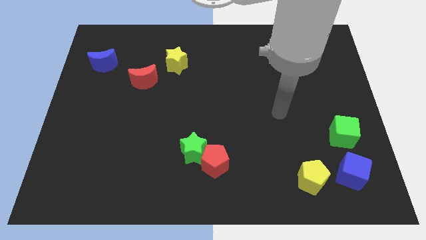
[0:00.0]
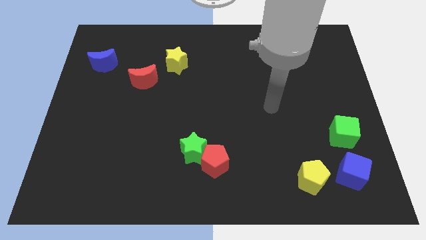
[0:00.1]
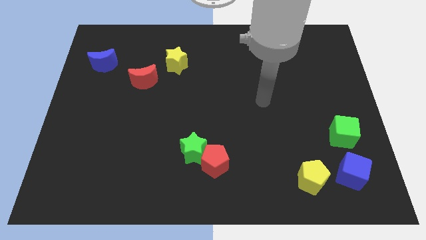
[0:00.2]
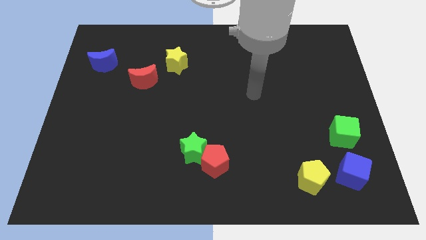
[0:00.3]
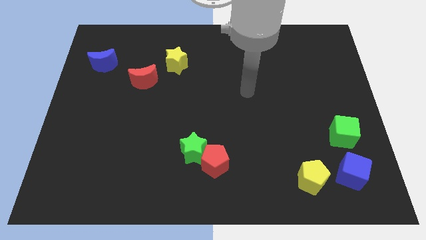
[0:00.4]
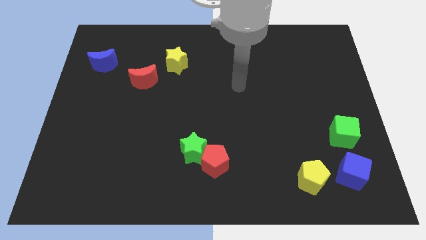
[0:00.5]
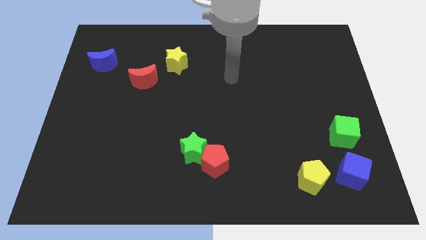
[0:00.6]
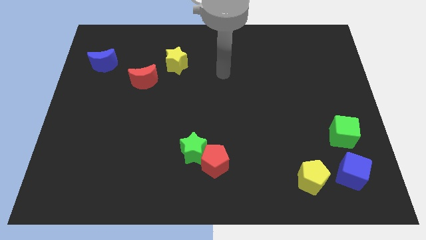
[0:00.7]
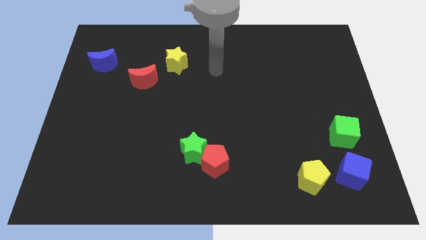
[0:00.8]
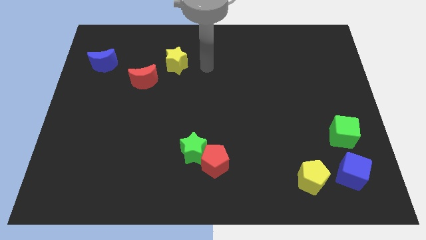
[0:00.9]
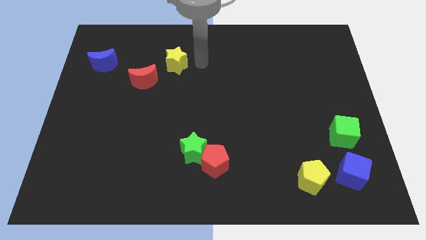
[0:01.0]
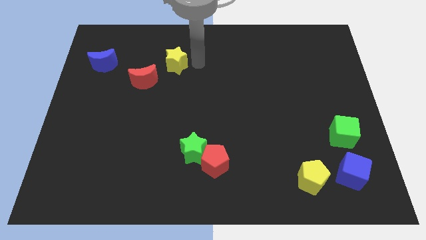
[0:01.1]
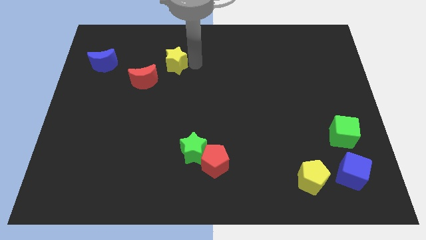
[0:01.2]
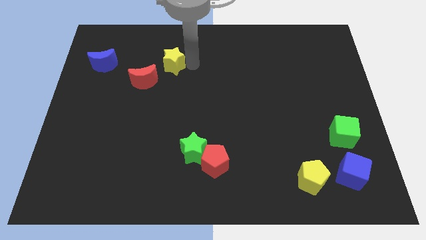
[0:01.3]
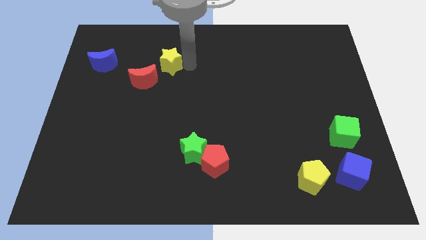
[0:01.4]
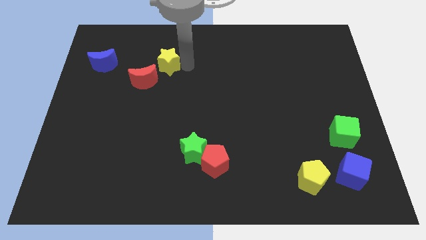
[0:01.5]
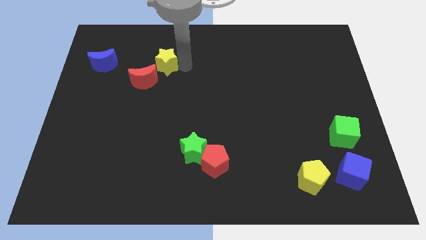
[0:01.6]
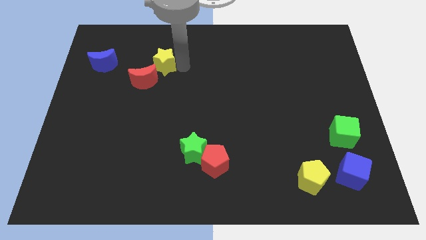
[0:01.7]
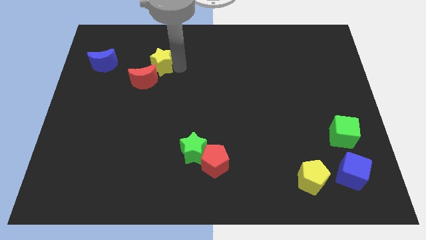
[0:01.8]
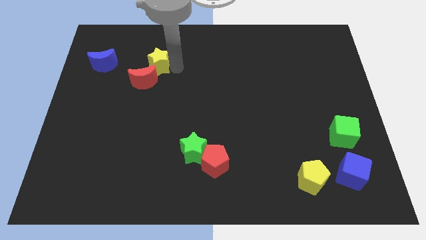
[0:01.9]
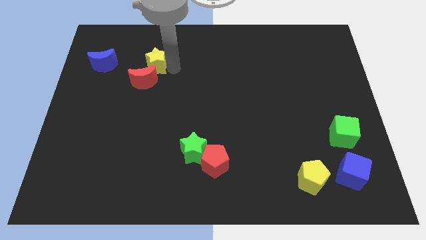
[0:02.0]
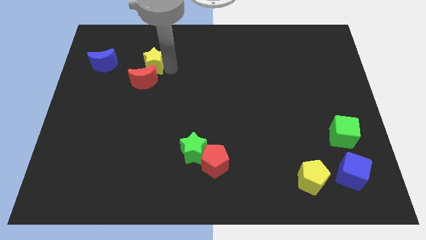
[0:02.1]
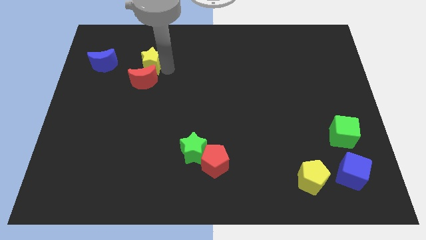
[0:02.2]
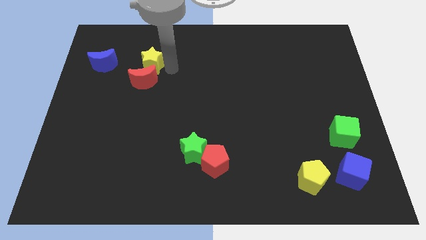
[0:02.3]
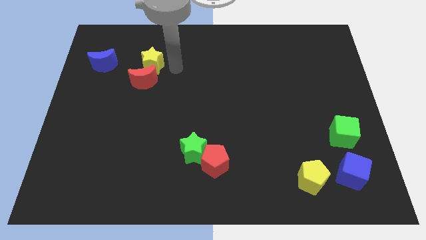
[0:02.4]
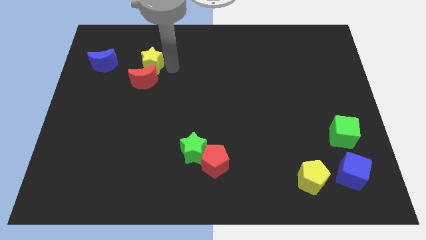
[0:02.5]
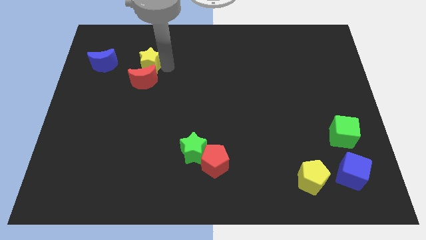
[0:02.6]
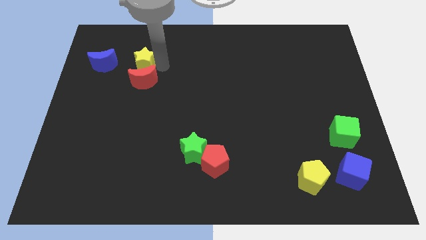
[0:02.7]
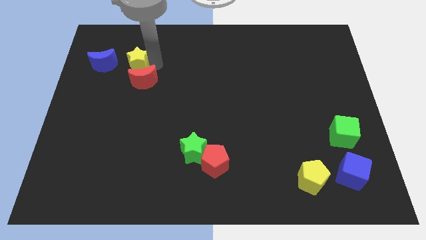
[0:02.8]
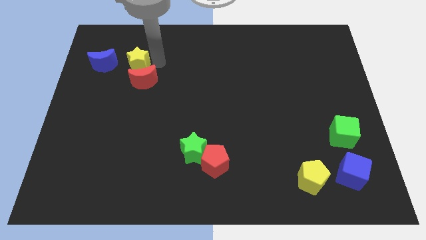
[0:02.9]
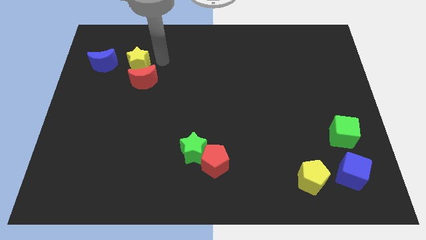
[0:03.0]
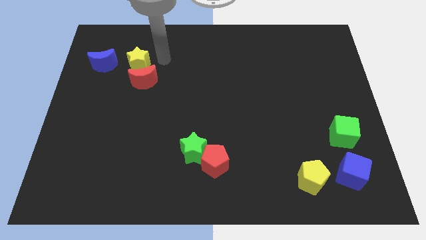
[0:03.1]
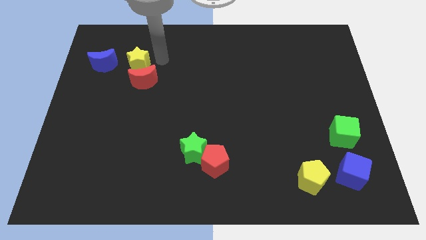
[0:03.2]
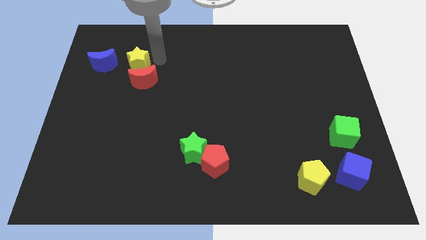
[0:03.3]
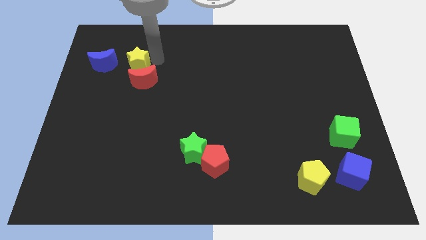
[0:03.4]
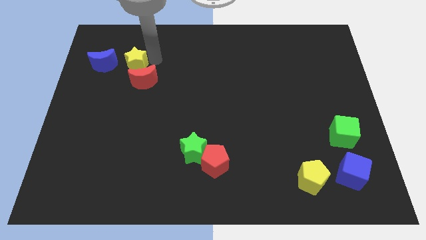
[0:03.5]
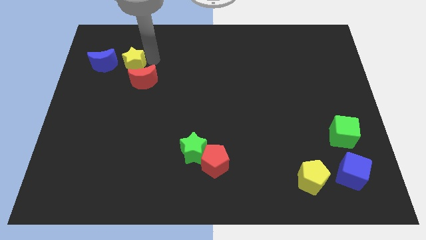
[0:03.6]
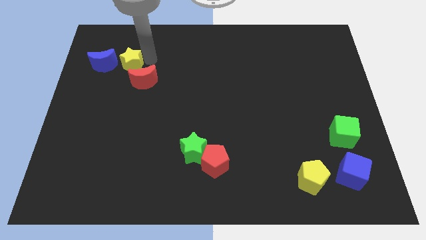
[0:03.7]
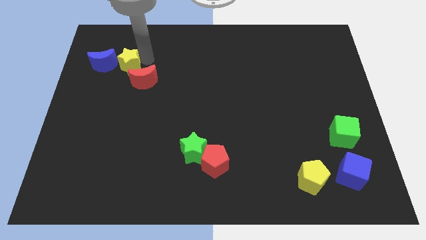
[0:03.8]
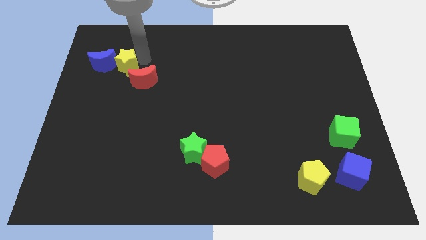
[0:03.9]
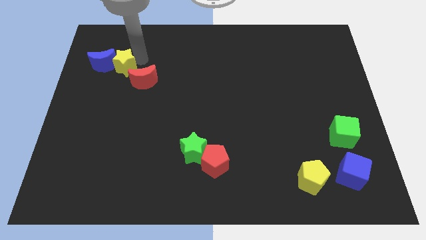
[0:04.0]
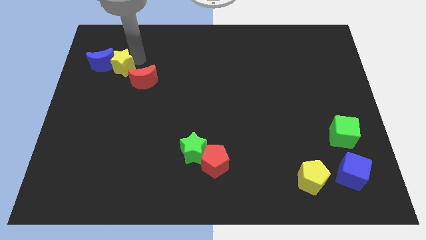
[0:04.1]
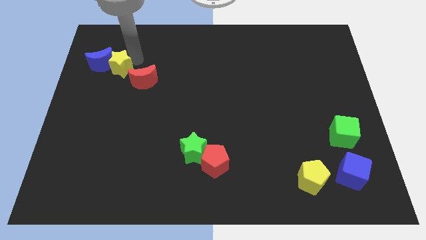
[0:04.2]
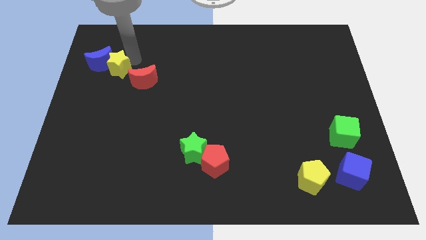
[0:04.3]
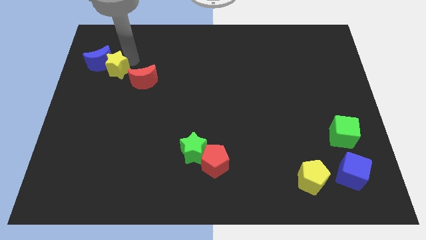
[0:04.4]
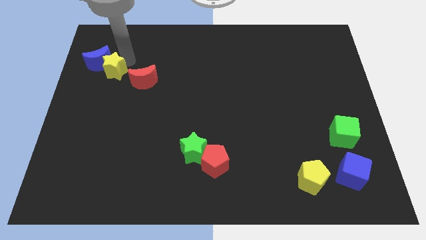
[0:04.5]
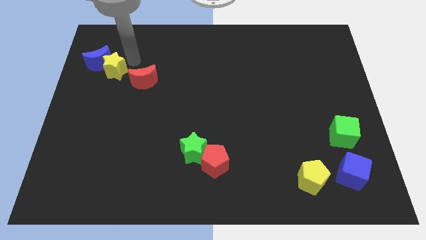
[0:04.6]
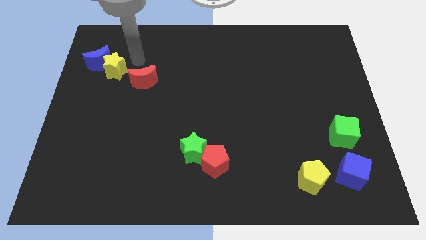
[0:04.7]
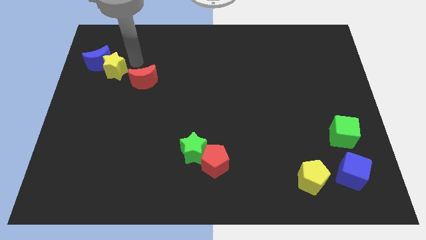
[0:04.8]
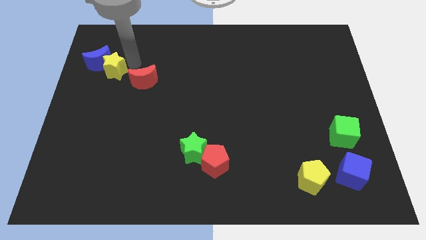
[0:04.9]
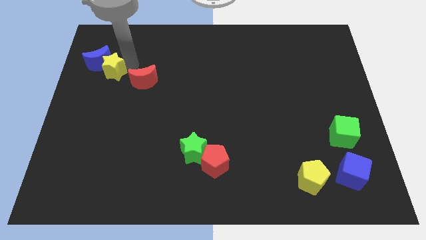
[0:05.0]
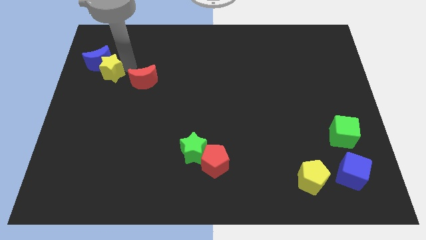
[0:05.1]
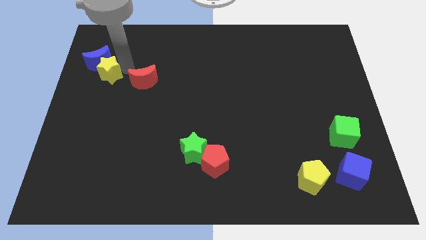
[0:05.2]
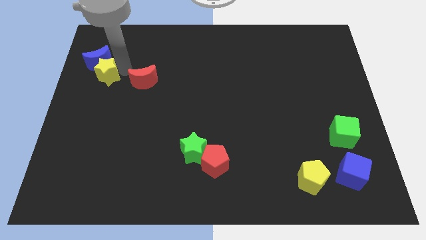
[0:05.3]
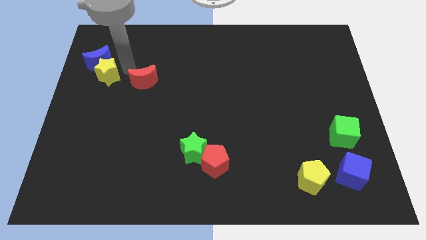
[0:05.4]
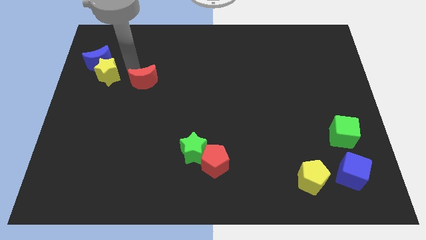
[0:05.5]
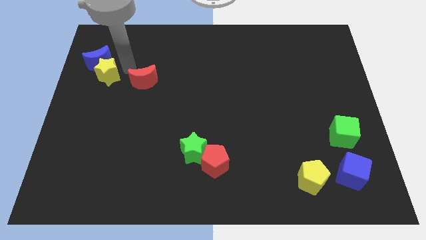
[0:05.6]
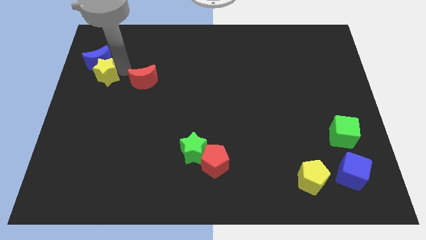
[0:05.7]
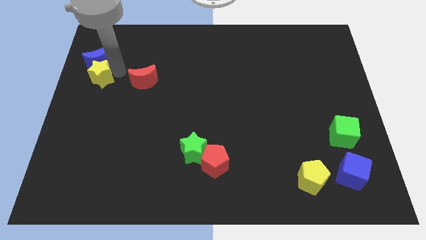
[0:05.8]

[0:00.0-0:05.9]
slide the yellow star to the center left
